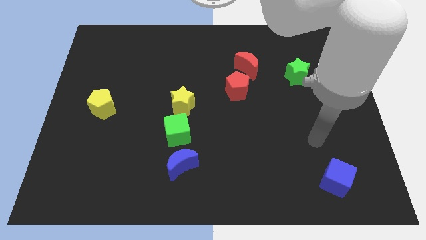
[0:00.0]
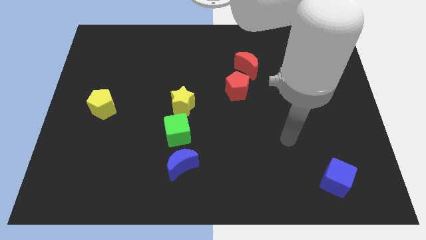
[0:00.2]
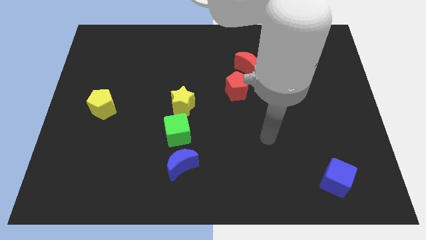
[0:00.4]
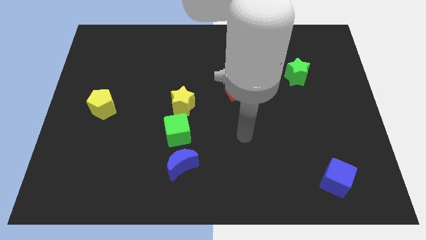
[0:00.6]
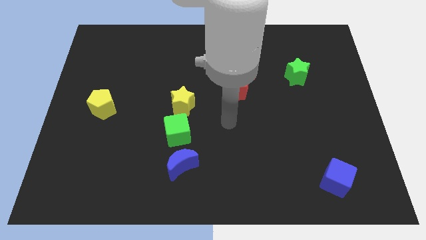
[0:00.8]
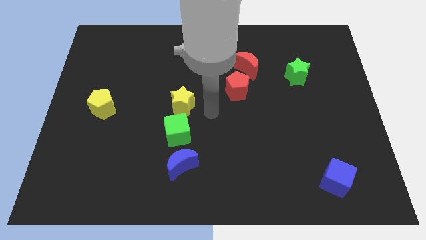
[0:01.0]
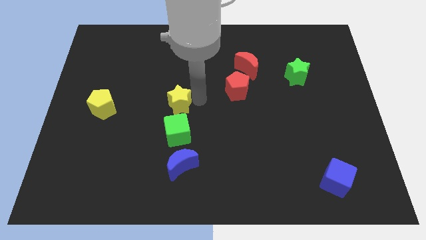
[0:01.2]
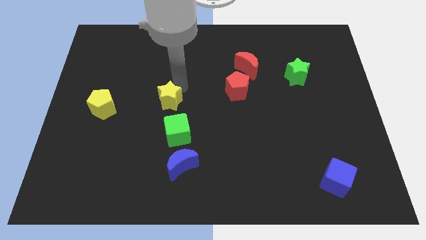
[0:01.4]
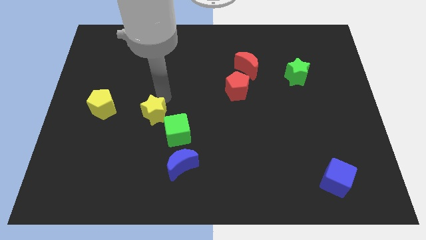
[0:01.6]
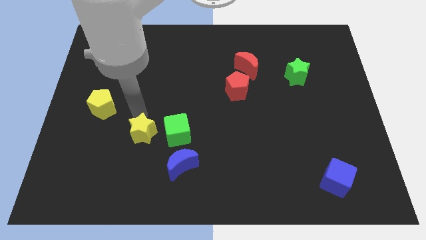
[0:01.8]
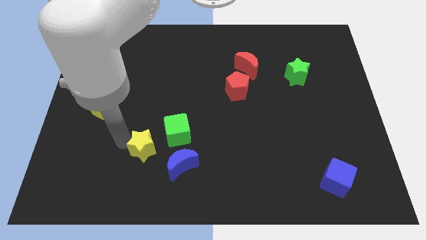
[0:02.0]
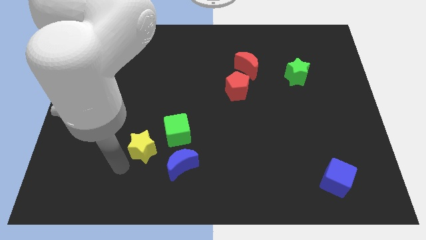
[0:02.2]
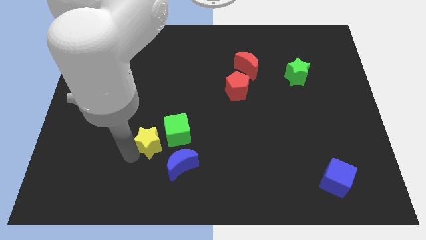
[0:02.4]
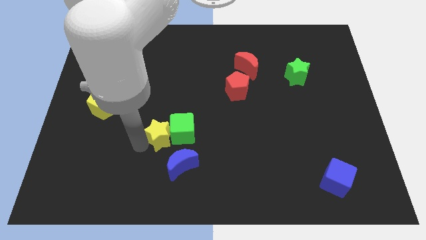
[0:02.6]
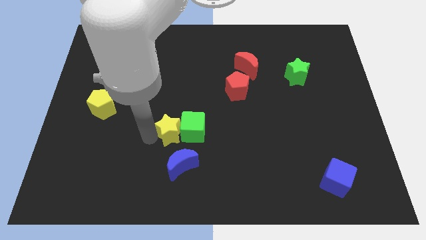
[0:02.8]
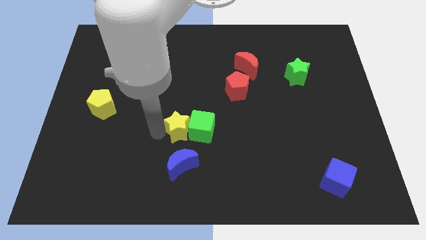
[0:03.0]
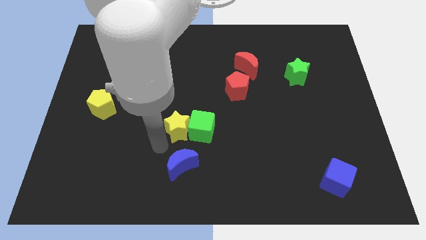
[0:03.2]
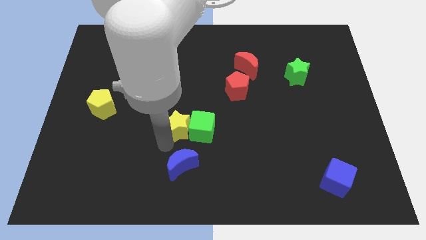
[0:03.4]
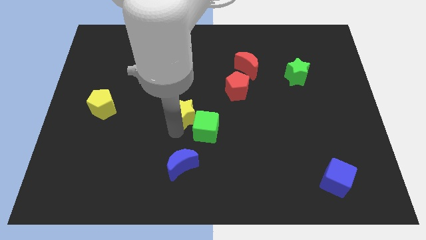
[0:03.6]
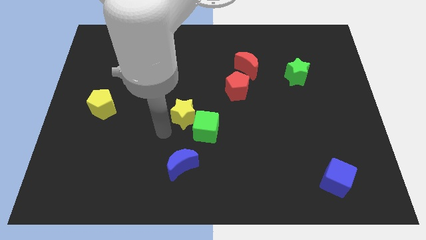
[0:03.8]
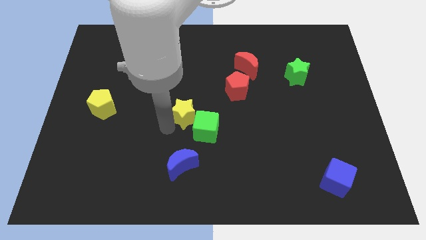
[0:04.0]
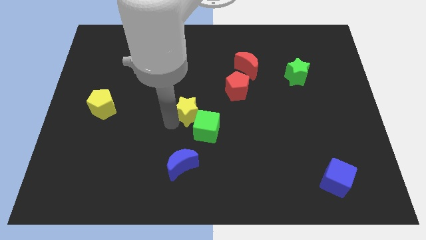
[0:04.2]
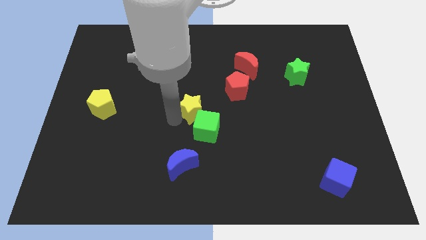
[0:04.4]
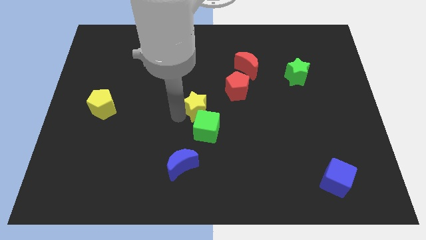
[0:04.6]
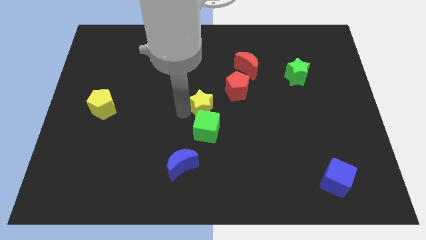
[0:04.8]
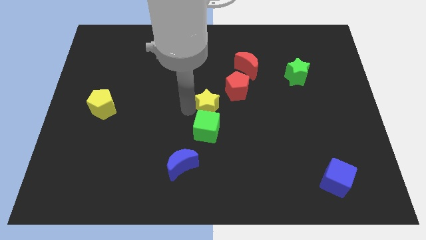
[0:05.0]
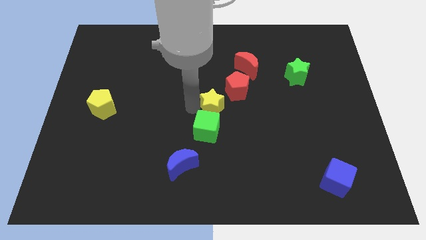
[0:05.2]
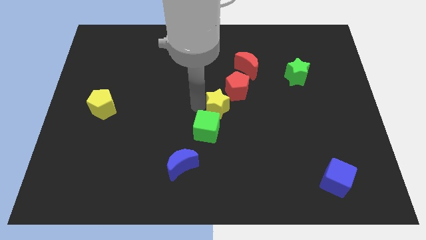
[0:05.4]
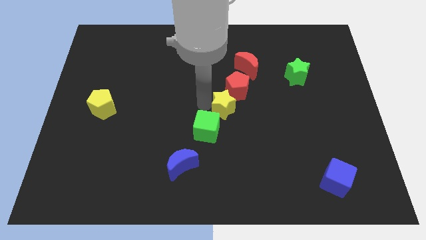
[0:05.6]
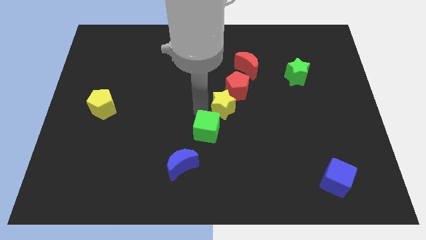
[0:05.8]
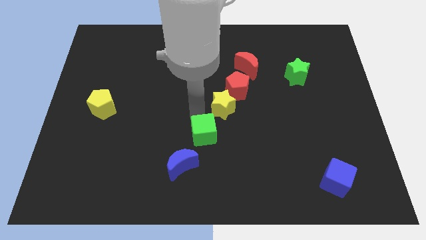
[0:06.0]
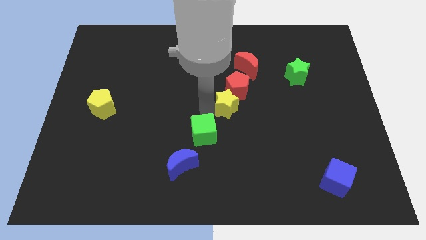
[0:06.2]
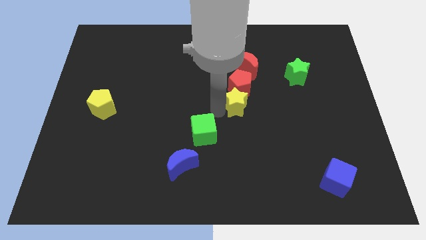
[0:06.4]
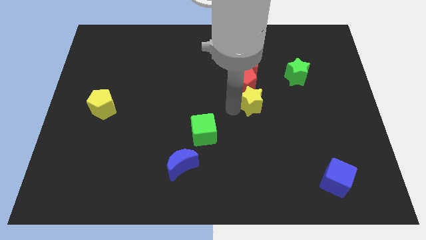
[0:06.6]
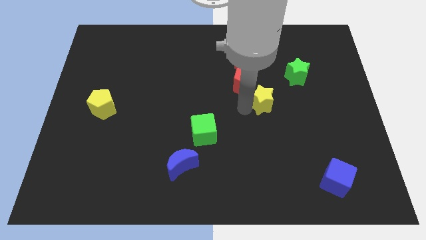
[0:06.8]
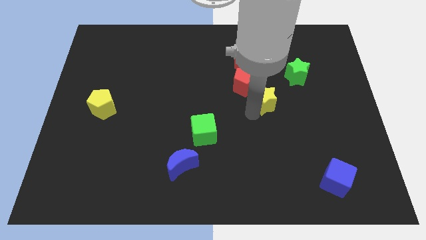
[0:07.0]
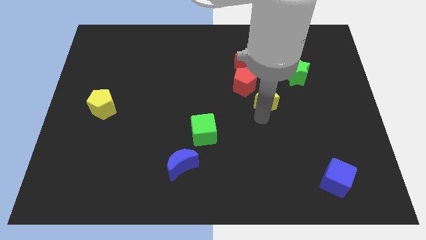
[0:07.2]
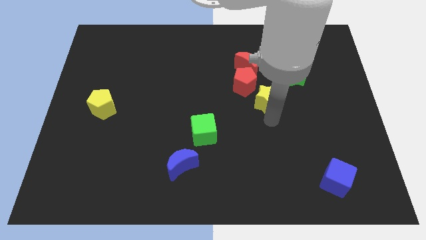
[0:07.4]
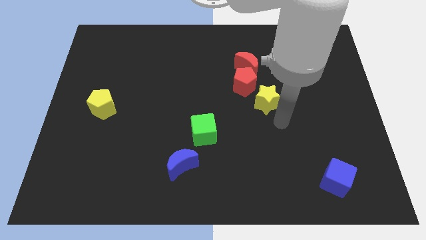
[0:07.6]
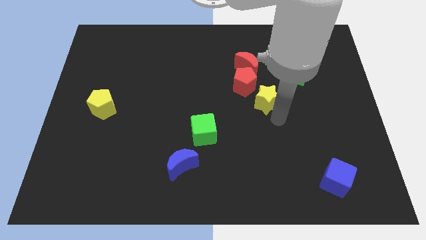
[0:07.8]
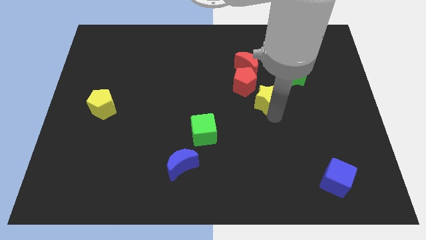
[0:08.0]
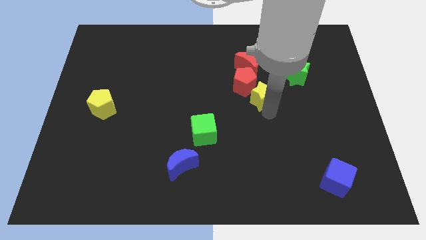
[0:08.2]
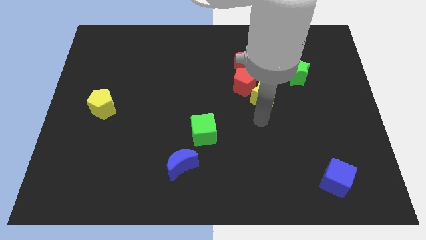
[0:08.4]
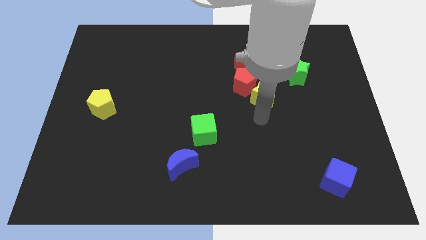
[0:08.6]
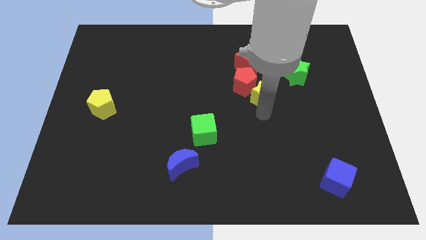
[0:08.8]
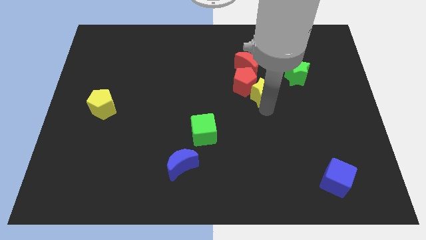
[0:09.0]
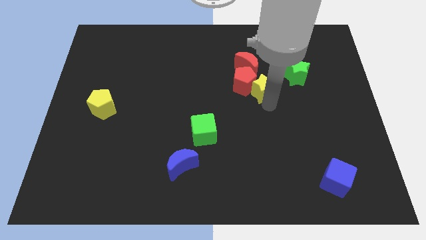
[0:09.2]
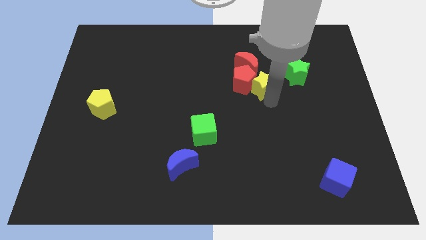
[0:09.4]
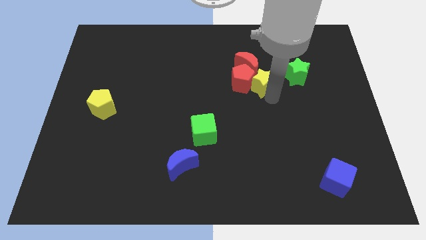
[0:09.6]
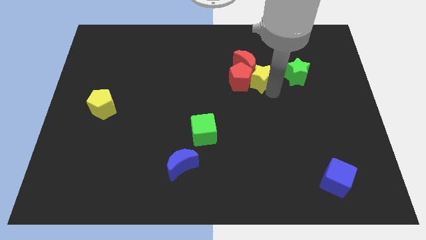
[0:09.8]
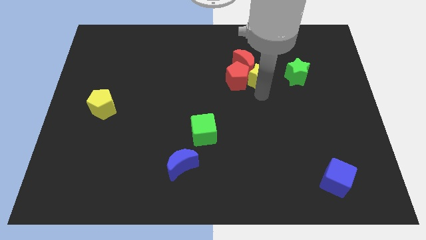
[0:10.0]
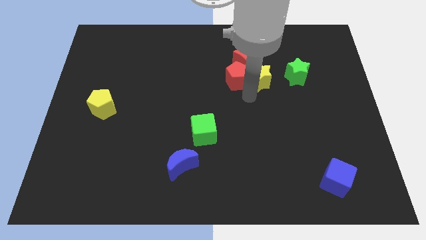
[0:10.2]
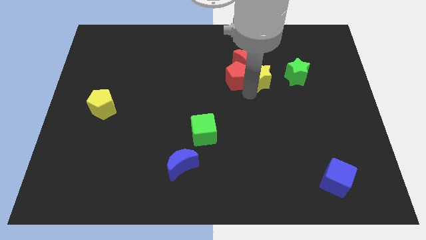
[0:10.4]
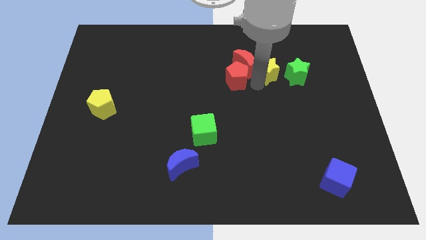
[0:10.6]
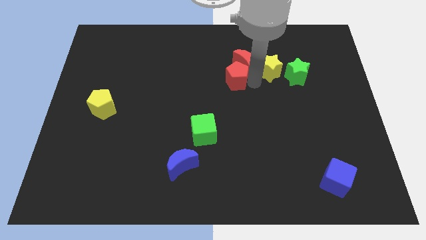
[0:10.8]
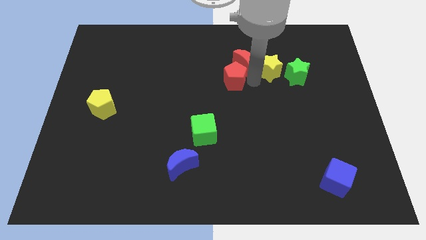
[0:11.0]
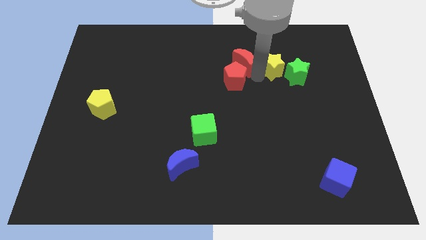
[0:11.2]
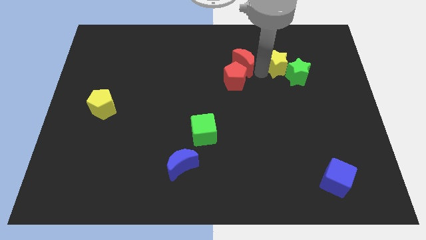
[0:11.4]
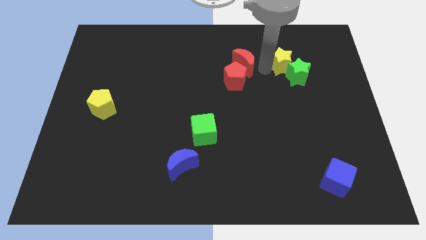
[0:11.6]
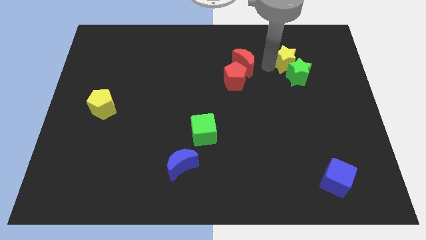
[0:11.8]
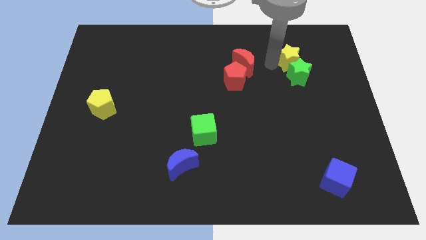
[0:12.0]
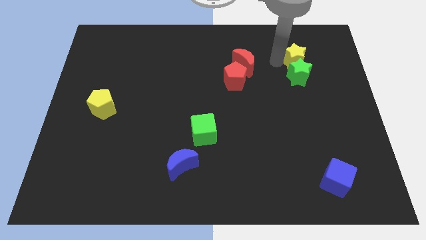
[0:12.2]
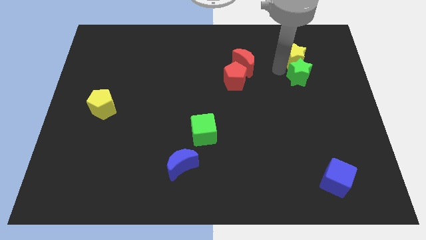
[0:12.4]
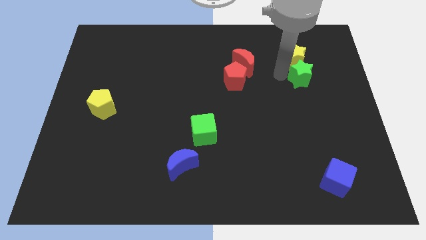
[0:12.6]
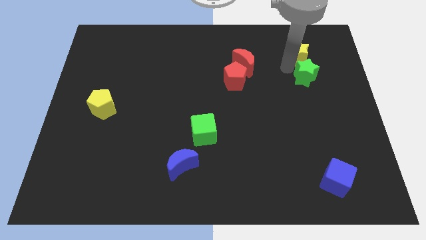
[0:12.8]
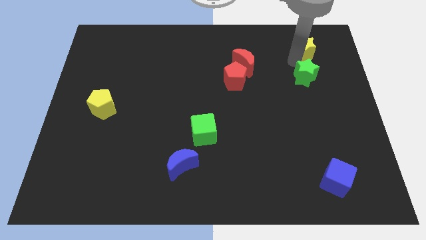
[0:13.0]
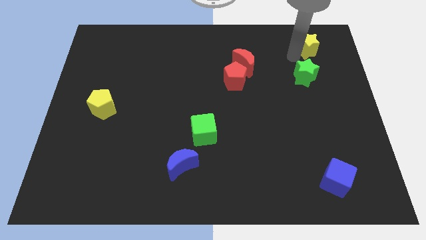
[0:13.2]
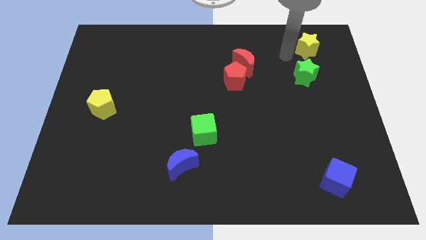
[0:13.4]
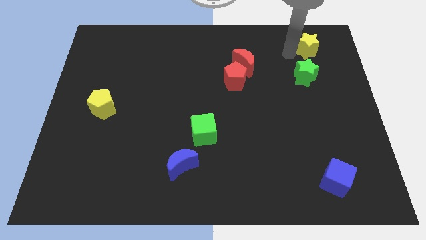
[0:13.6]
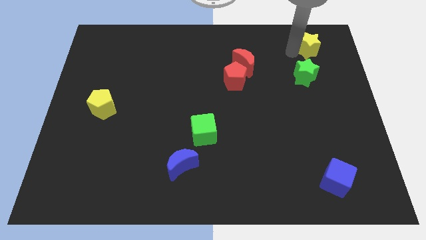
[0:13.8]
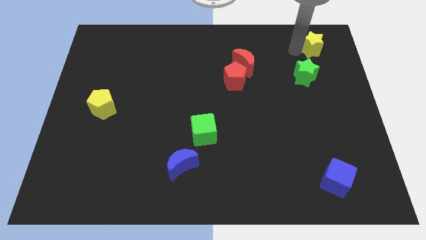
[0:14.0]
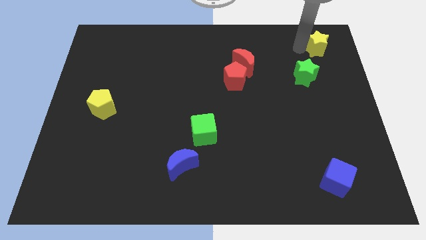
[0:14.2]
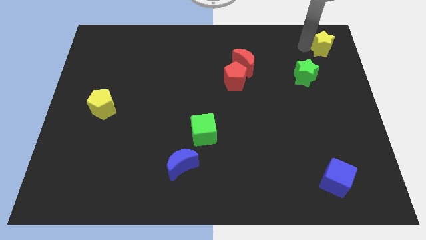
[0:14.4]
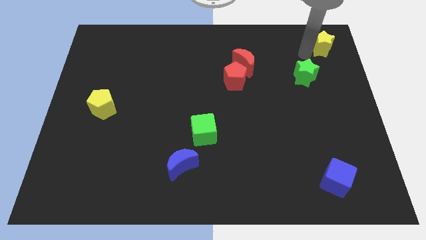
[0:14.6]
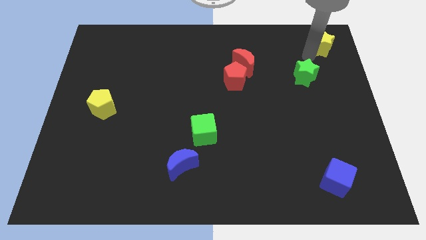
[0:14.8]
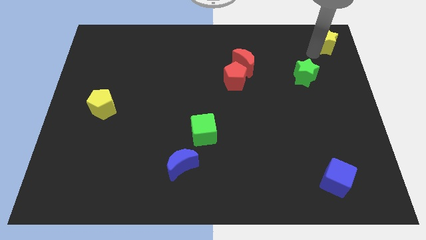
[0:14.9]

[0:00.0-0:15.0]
push the yellow star to the upper right corner
